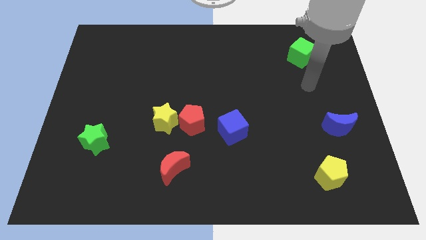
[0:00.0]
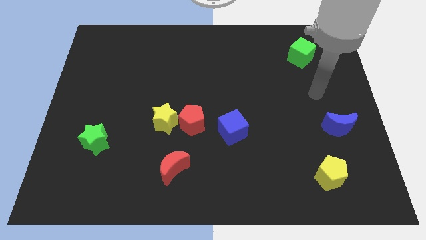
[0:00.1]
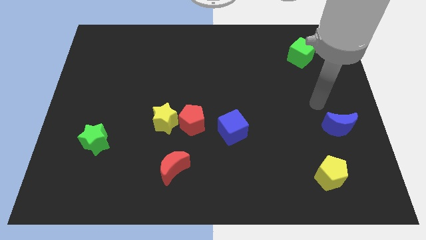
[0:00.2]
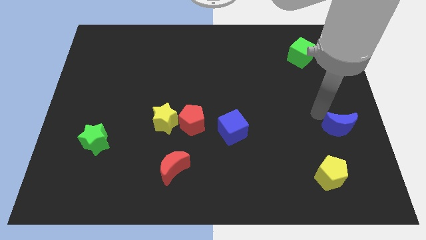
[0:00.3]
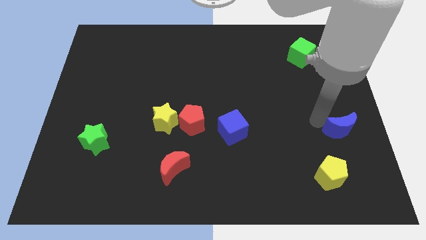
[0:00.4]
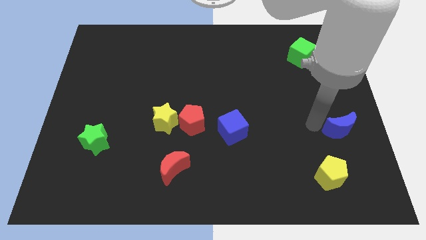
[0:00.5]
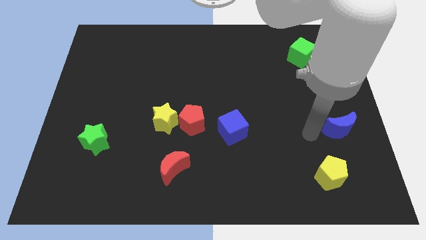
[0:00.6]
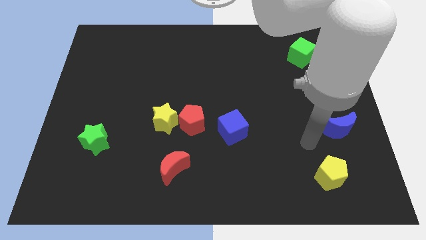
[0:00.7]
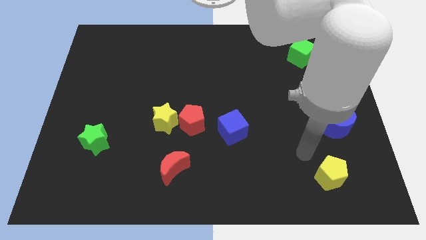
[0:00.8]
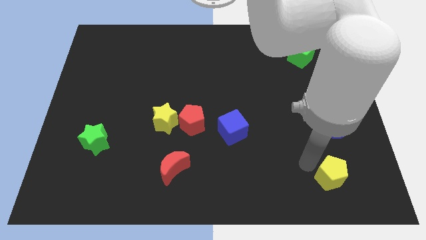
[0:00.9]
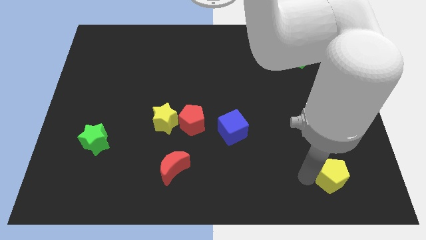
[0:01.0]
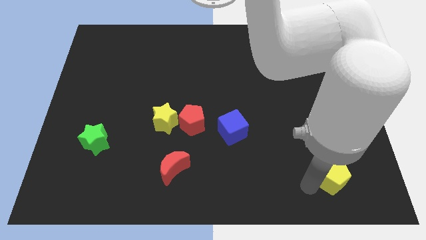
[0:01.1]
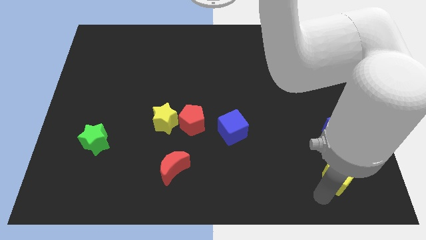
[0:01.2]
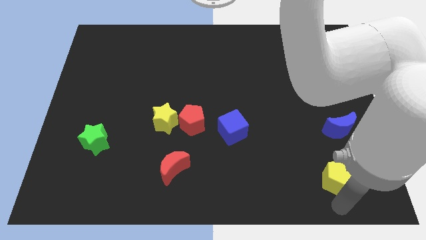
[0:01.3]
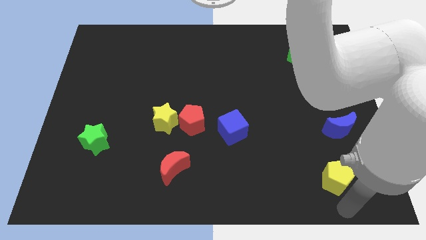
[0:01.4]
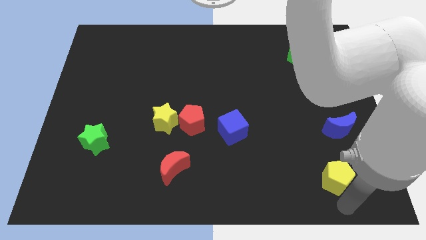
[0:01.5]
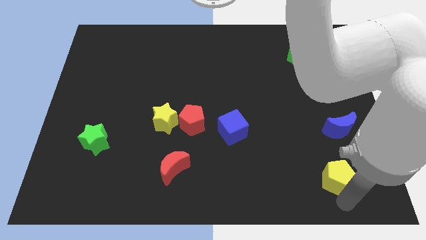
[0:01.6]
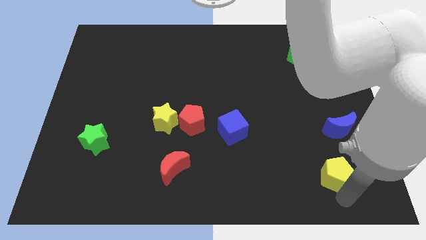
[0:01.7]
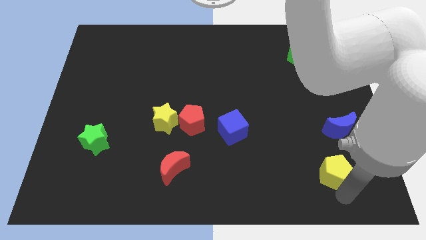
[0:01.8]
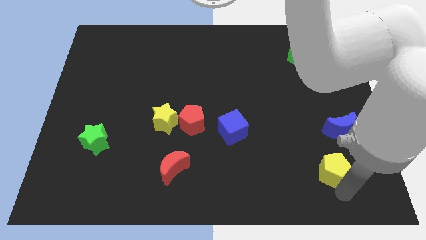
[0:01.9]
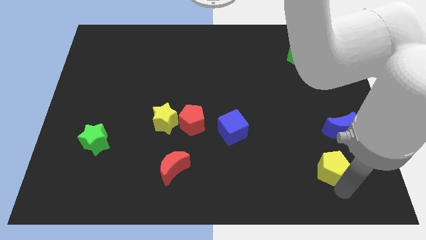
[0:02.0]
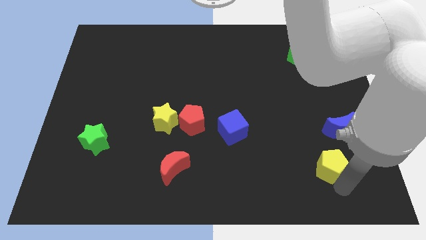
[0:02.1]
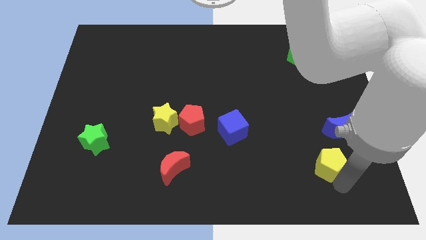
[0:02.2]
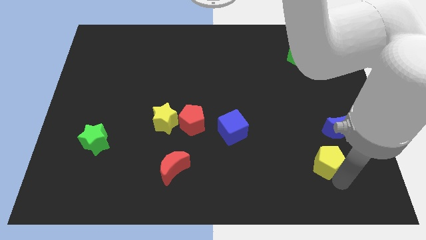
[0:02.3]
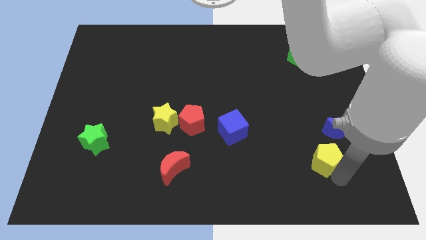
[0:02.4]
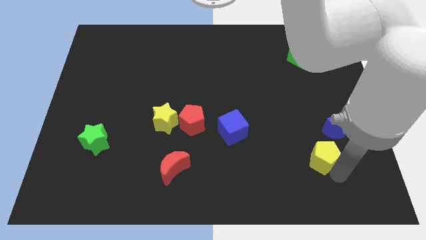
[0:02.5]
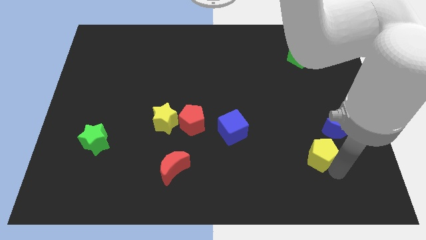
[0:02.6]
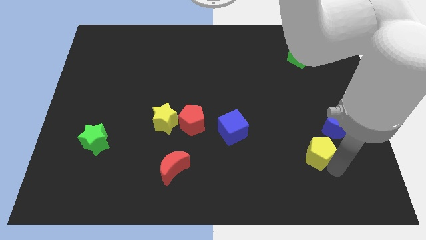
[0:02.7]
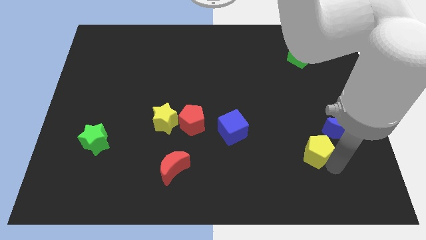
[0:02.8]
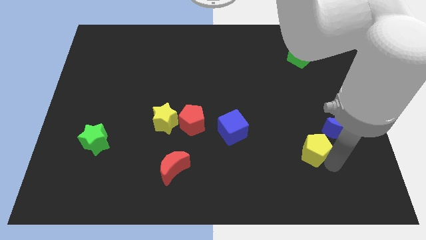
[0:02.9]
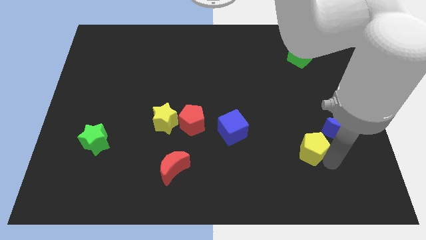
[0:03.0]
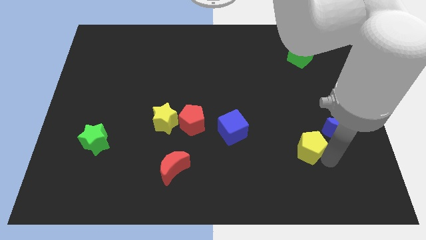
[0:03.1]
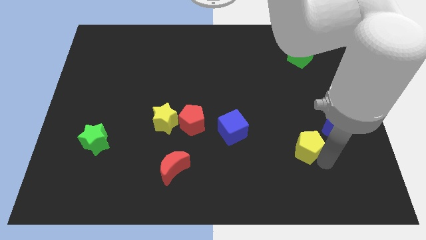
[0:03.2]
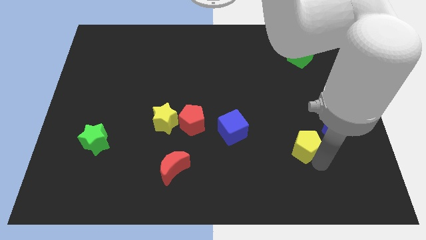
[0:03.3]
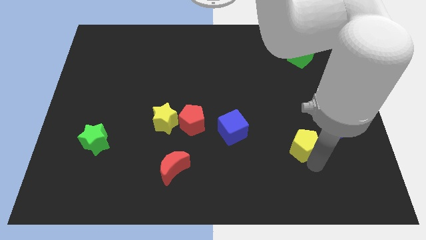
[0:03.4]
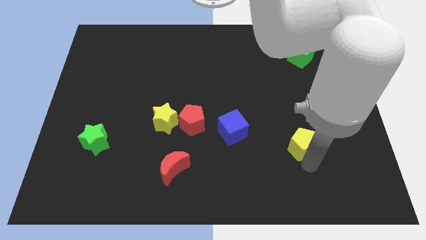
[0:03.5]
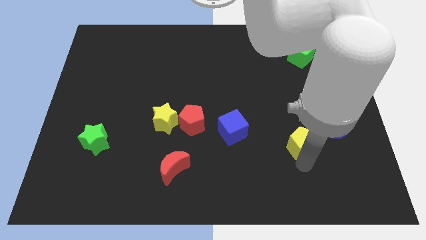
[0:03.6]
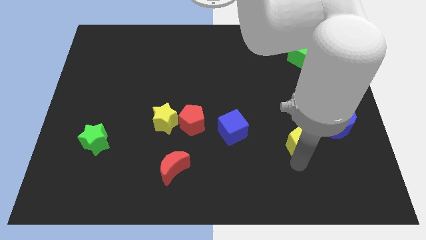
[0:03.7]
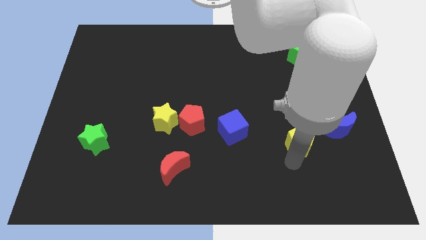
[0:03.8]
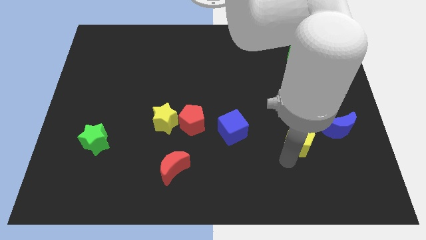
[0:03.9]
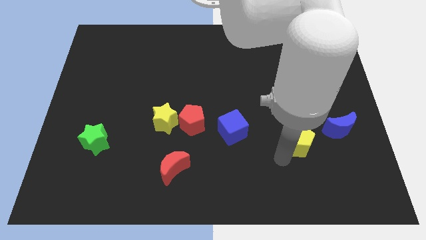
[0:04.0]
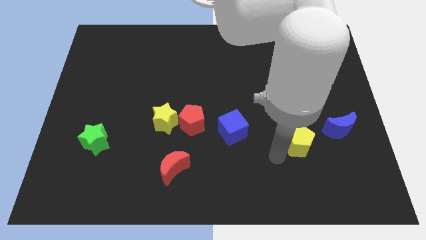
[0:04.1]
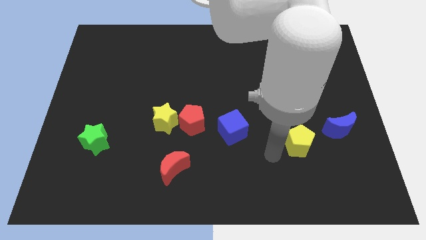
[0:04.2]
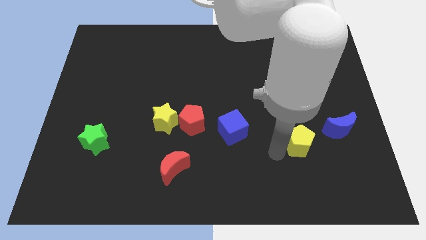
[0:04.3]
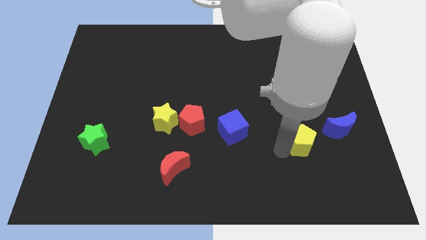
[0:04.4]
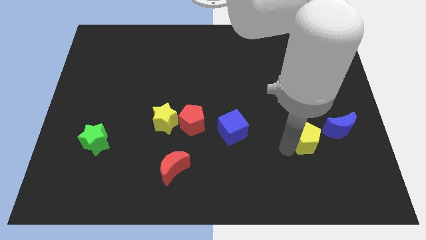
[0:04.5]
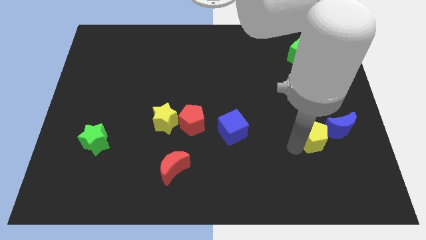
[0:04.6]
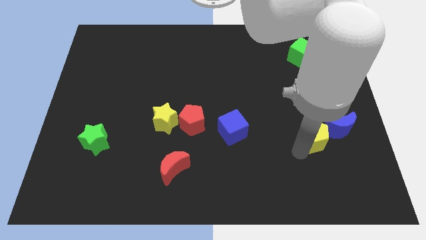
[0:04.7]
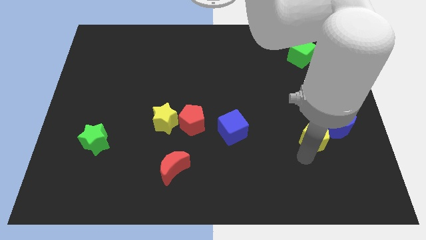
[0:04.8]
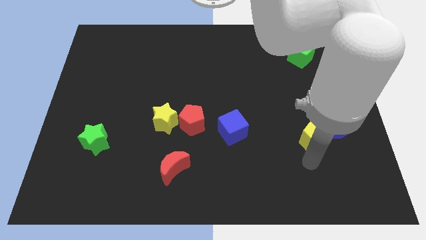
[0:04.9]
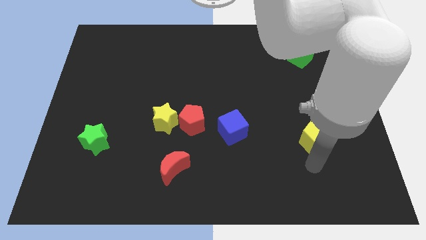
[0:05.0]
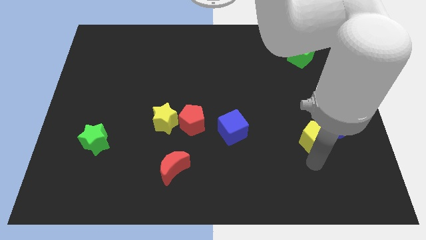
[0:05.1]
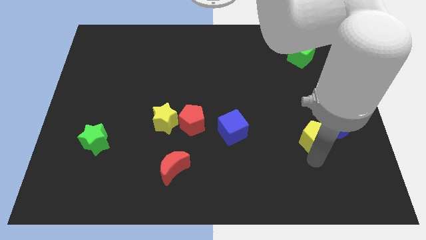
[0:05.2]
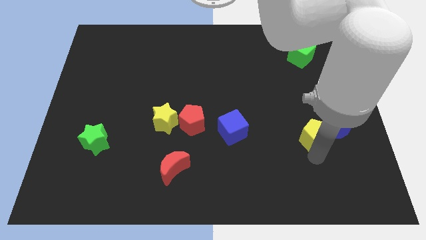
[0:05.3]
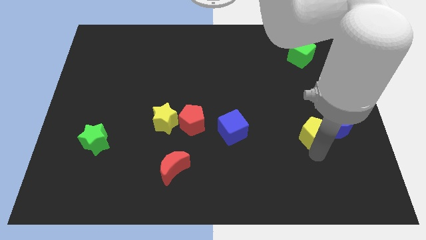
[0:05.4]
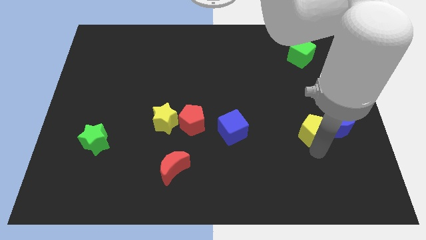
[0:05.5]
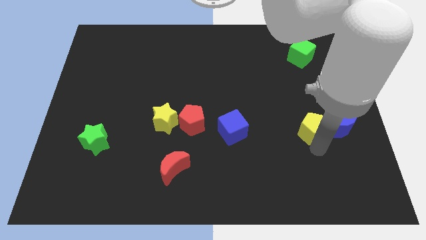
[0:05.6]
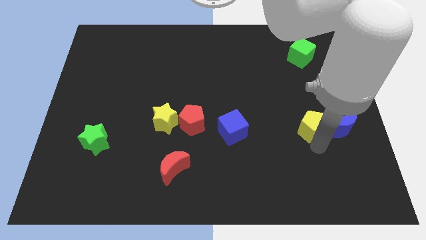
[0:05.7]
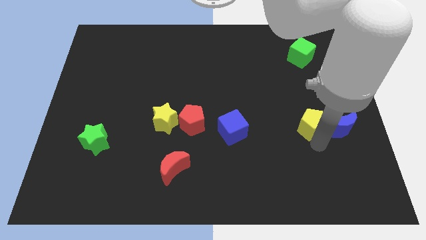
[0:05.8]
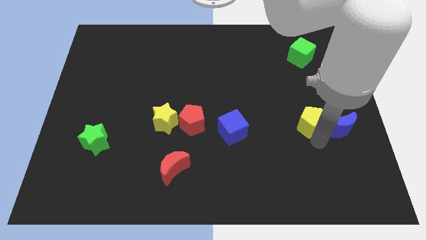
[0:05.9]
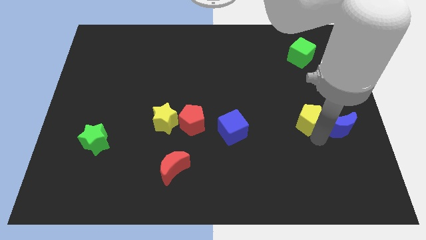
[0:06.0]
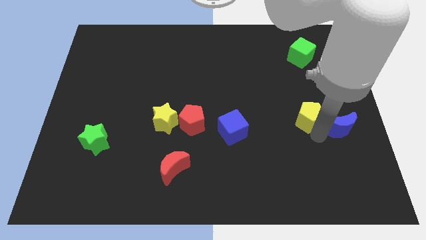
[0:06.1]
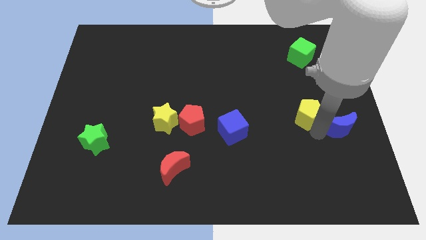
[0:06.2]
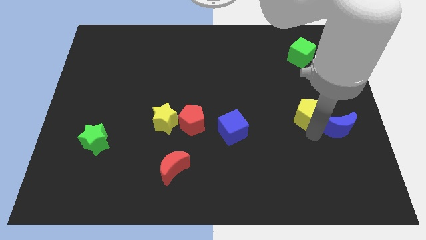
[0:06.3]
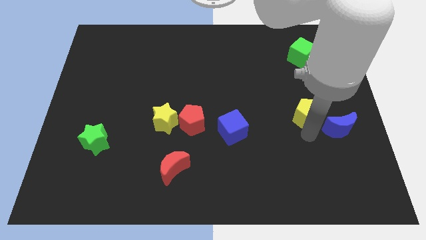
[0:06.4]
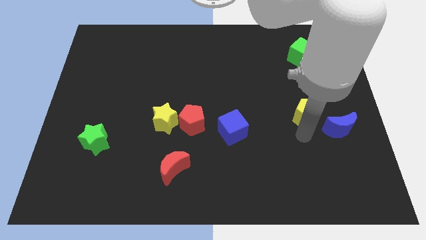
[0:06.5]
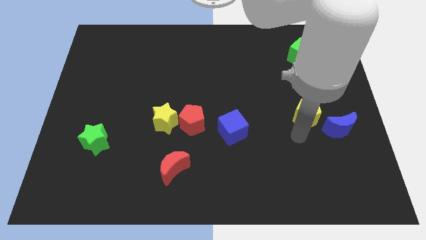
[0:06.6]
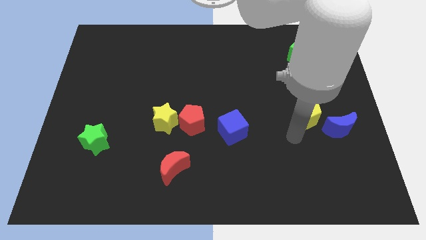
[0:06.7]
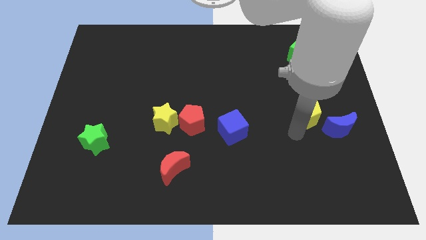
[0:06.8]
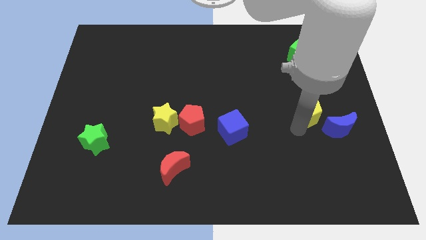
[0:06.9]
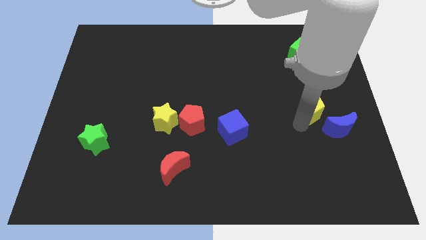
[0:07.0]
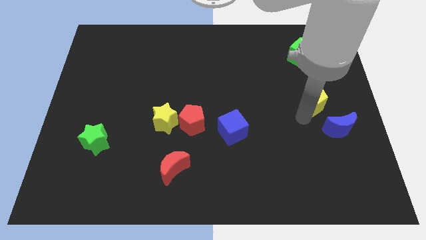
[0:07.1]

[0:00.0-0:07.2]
slide the yellow pentagon to the top of the blue moon

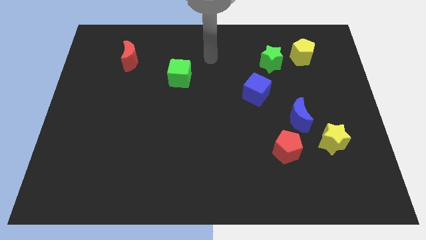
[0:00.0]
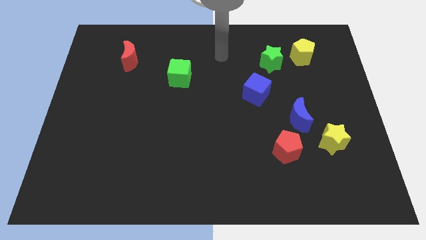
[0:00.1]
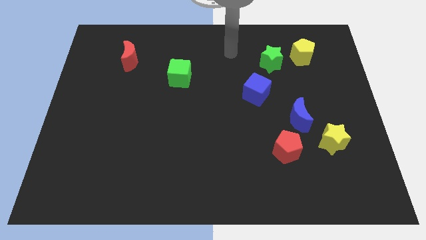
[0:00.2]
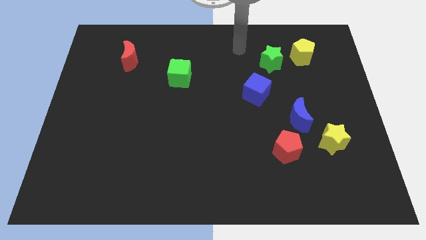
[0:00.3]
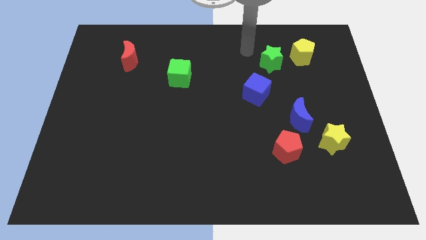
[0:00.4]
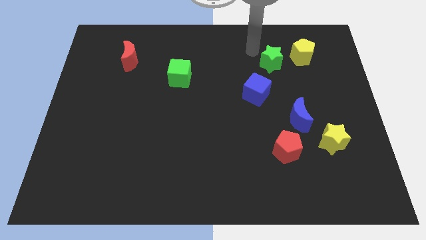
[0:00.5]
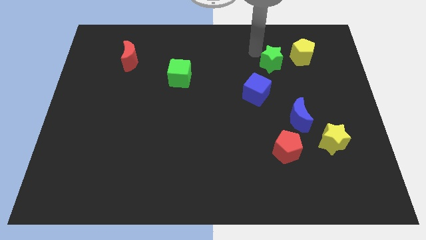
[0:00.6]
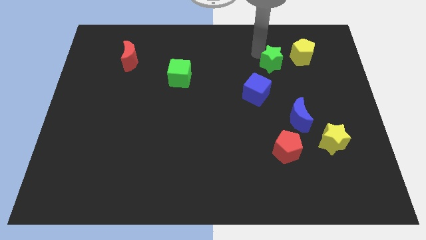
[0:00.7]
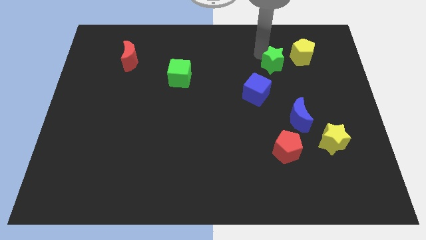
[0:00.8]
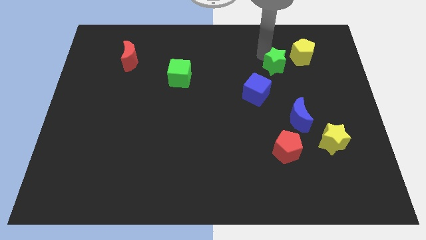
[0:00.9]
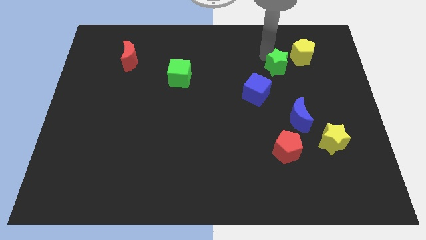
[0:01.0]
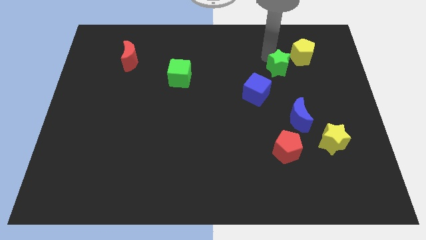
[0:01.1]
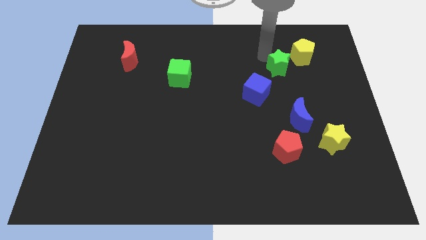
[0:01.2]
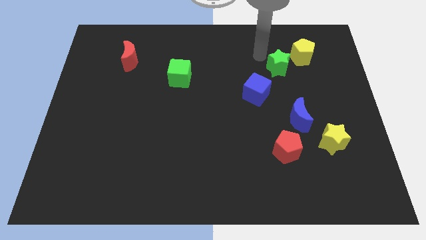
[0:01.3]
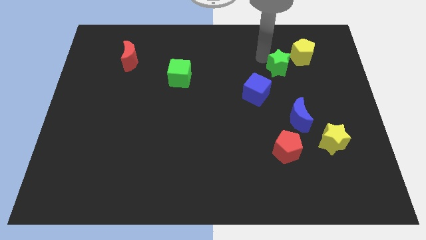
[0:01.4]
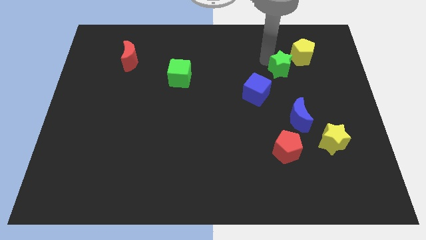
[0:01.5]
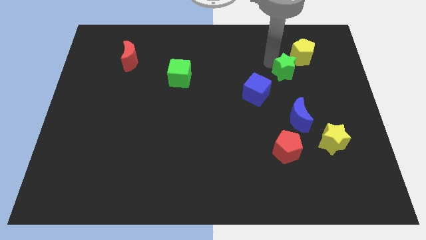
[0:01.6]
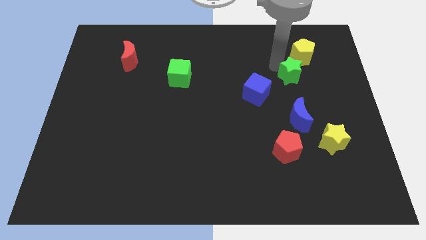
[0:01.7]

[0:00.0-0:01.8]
put the green star to the bottom side of the yellow pentagon
